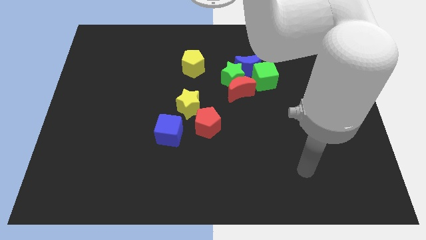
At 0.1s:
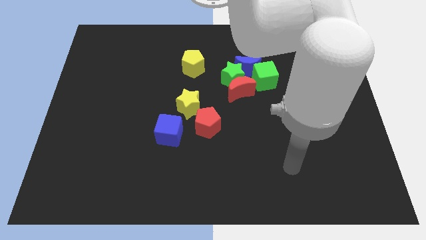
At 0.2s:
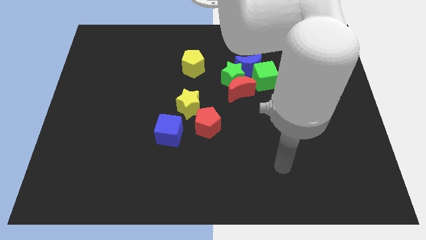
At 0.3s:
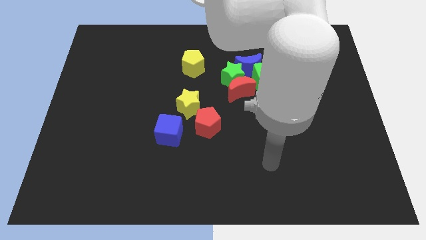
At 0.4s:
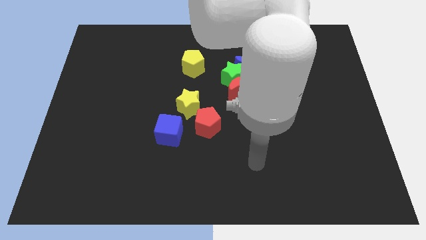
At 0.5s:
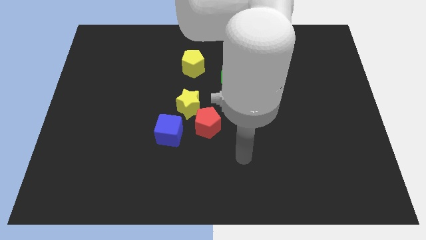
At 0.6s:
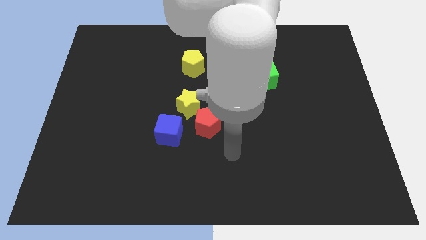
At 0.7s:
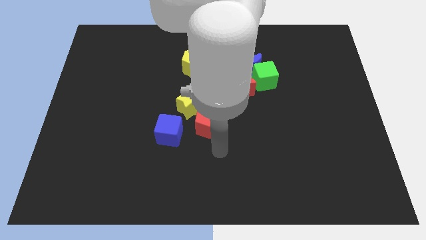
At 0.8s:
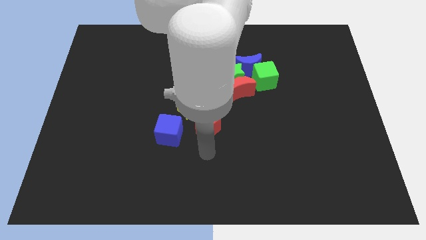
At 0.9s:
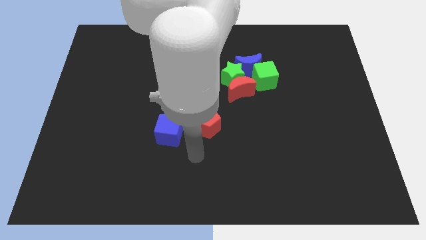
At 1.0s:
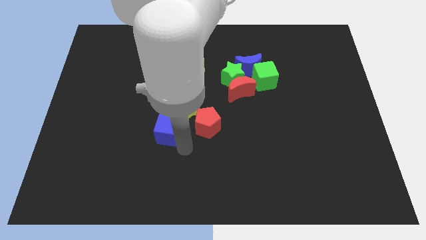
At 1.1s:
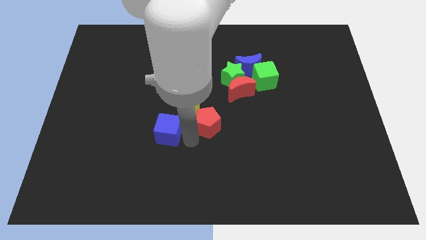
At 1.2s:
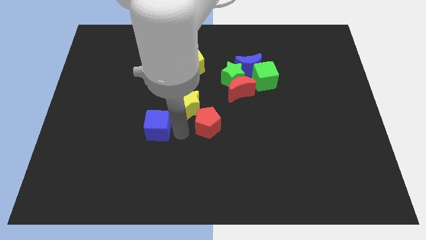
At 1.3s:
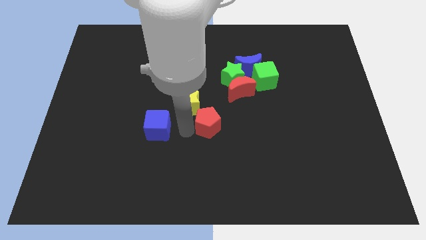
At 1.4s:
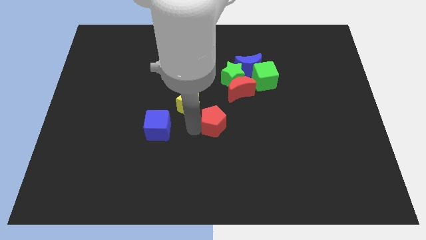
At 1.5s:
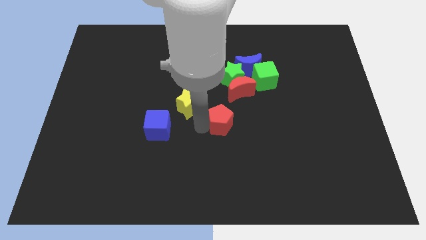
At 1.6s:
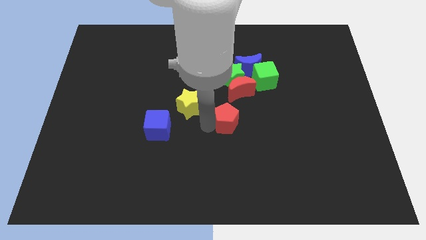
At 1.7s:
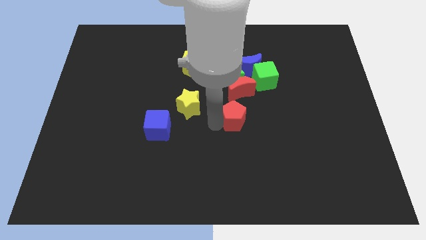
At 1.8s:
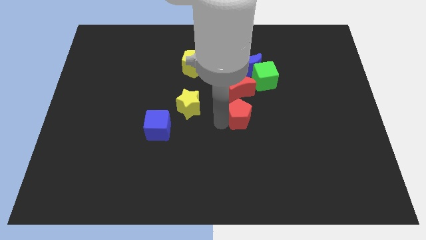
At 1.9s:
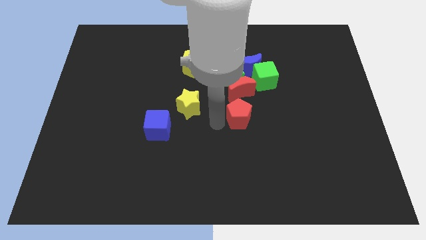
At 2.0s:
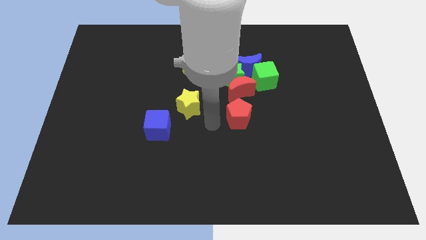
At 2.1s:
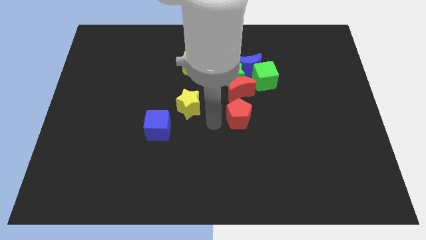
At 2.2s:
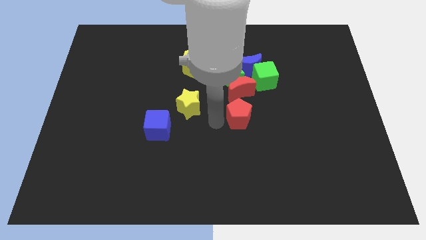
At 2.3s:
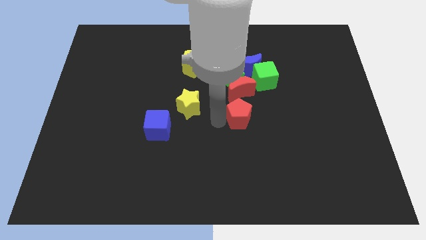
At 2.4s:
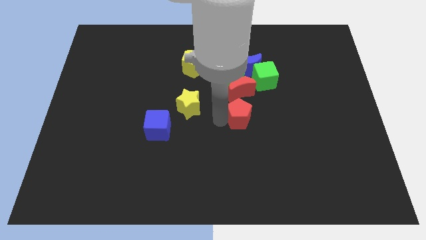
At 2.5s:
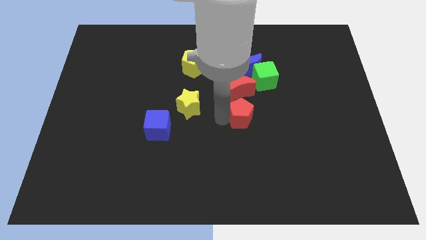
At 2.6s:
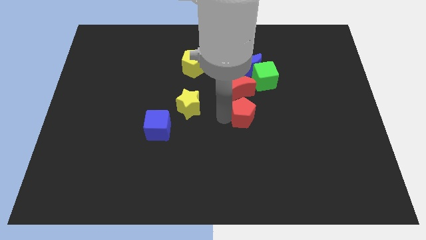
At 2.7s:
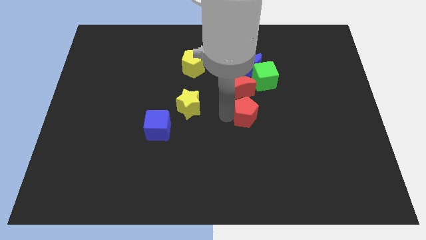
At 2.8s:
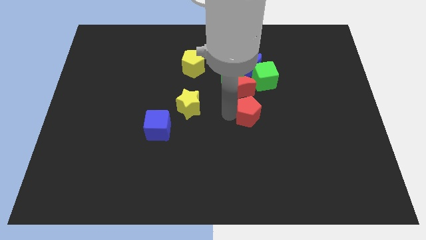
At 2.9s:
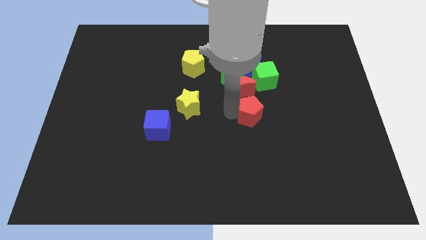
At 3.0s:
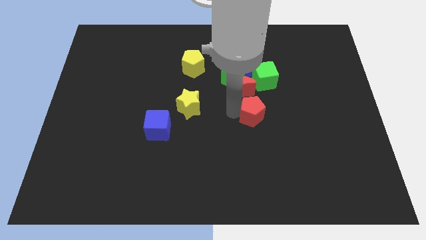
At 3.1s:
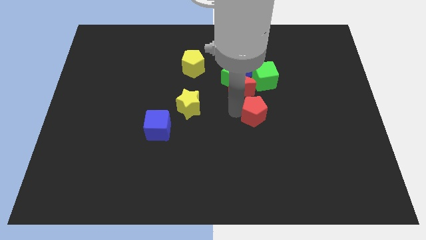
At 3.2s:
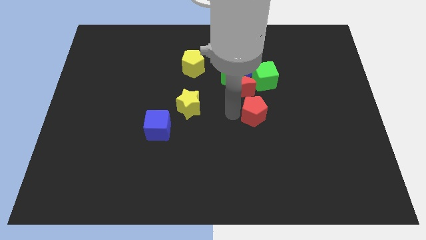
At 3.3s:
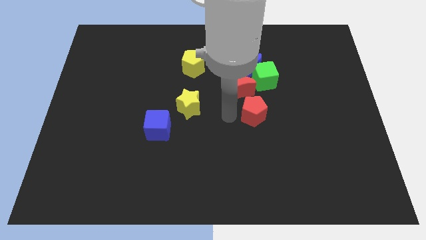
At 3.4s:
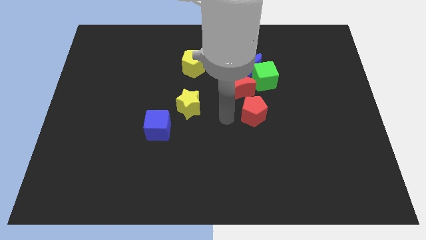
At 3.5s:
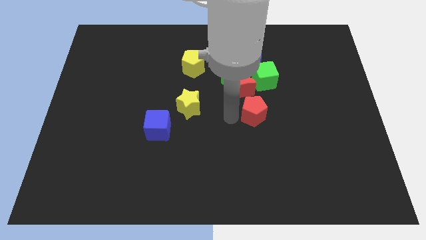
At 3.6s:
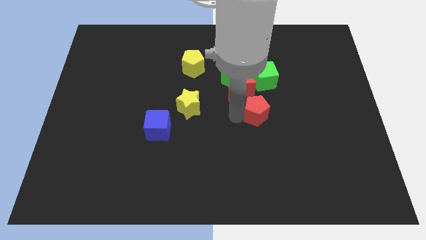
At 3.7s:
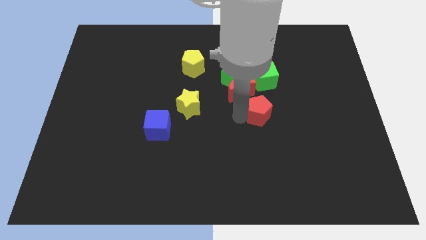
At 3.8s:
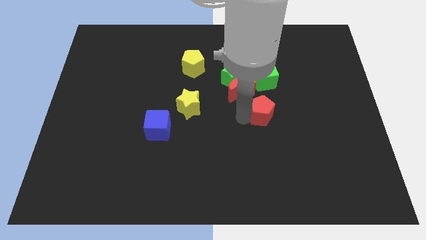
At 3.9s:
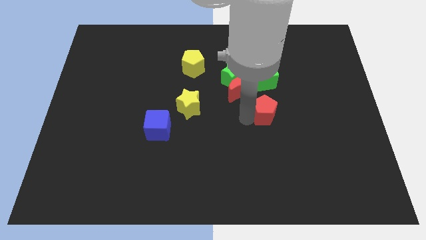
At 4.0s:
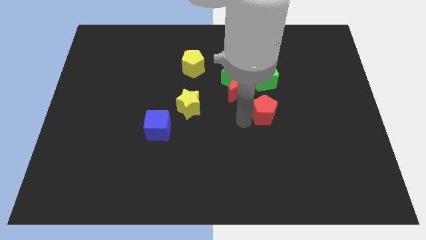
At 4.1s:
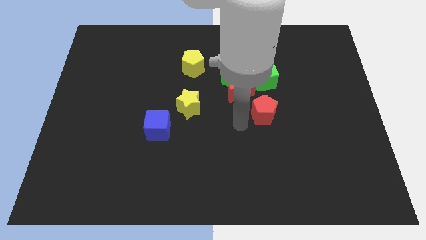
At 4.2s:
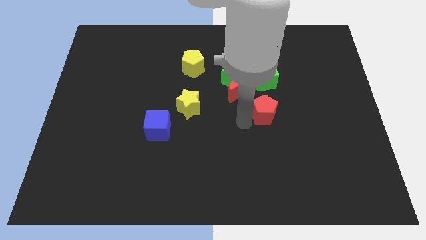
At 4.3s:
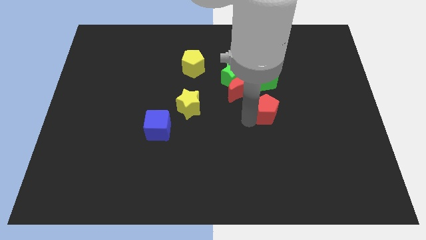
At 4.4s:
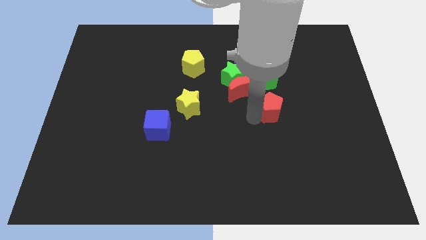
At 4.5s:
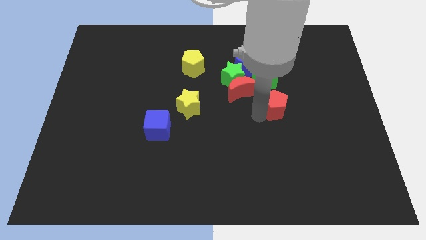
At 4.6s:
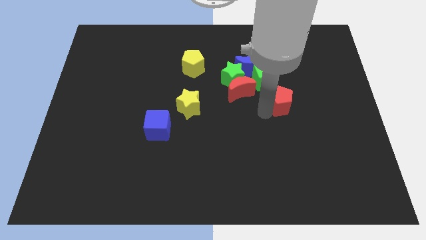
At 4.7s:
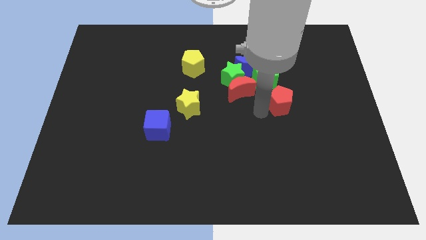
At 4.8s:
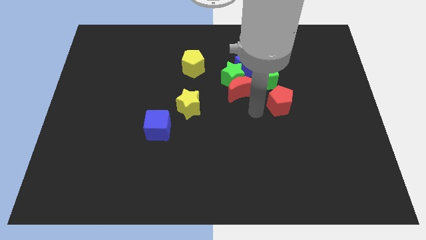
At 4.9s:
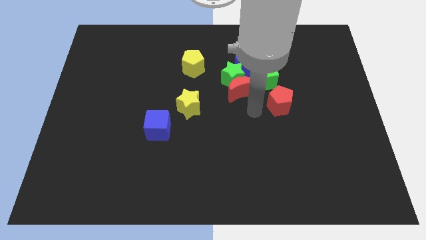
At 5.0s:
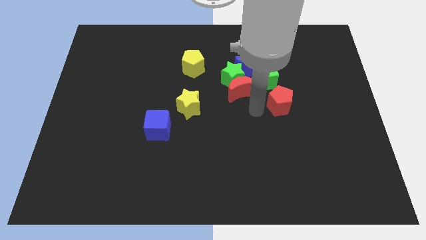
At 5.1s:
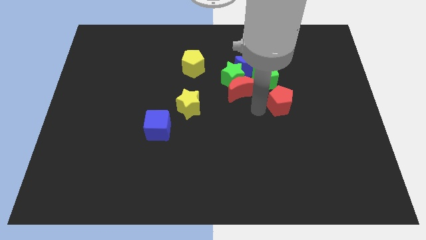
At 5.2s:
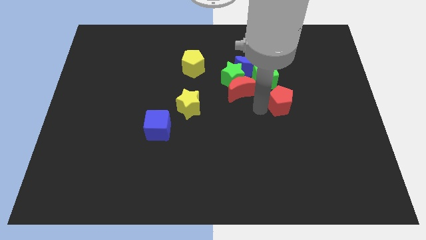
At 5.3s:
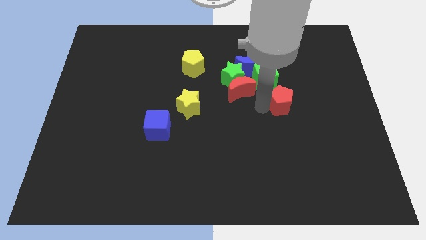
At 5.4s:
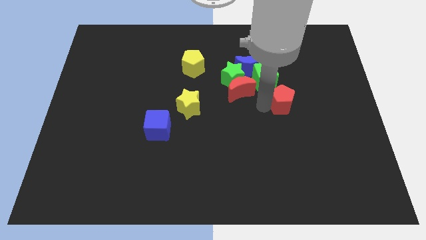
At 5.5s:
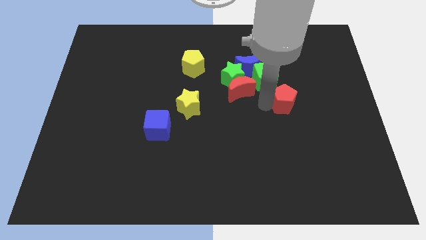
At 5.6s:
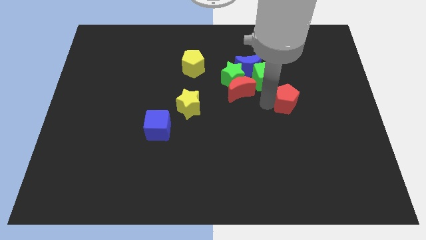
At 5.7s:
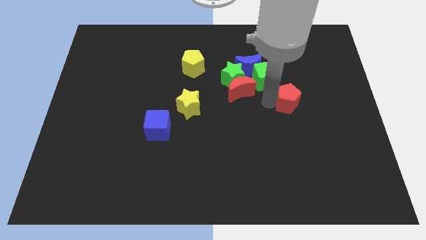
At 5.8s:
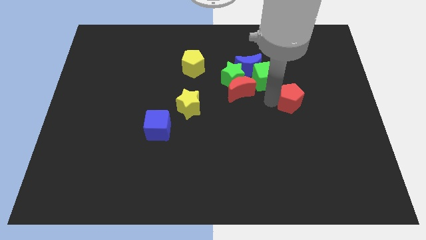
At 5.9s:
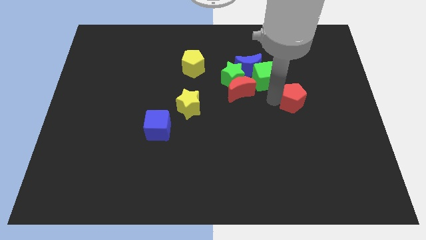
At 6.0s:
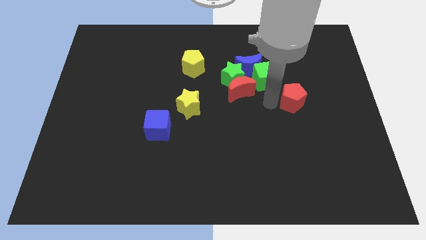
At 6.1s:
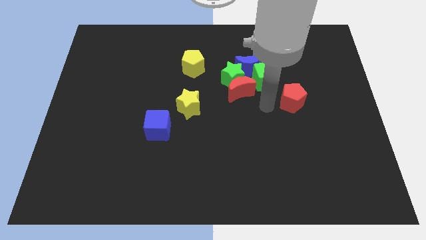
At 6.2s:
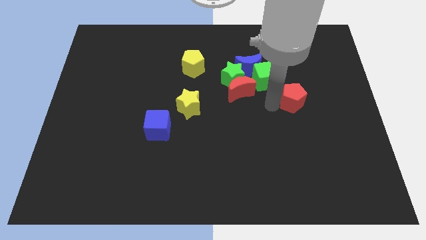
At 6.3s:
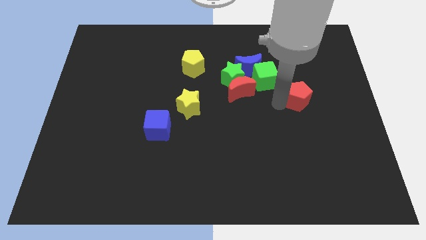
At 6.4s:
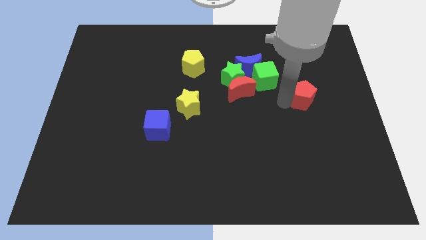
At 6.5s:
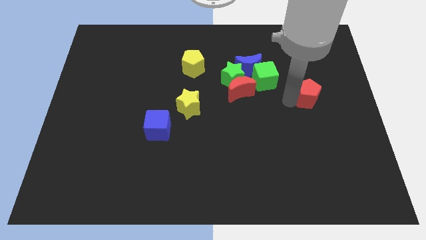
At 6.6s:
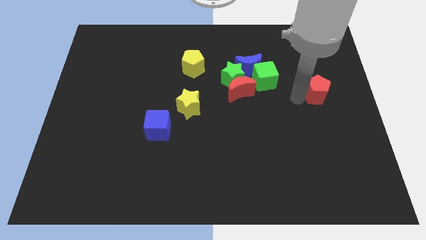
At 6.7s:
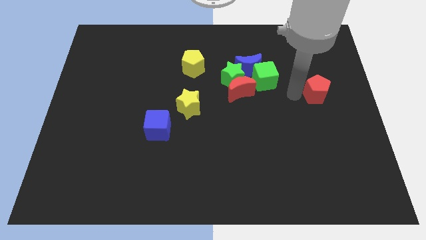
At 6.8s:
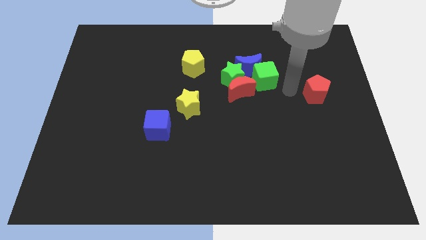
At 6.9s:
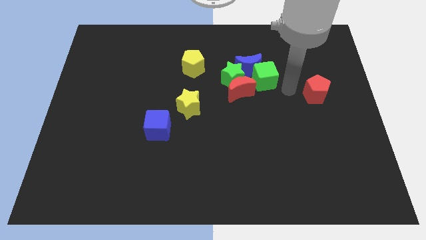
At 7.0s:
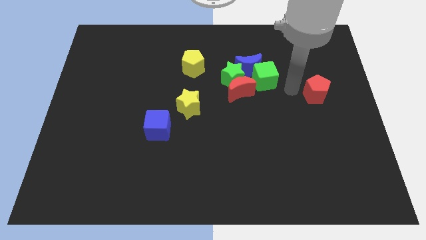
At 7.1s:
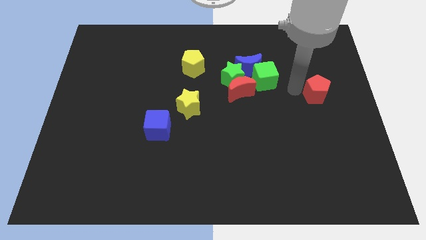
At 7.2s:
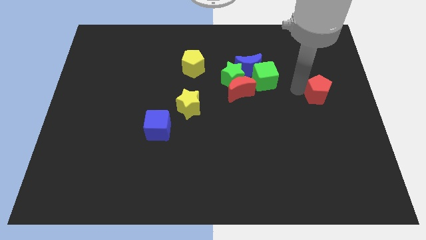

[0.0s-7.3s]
put the red pentagon to the right side
